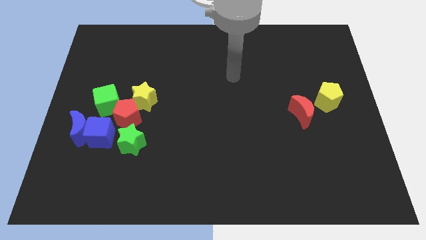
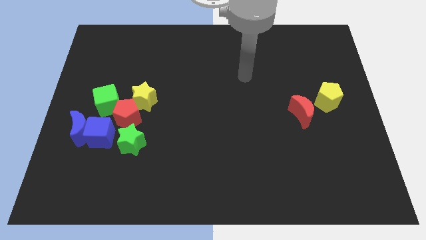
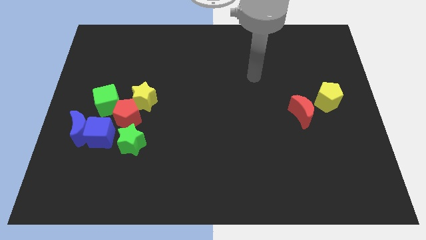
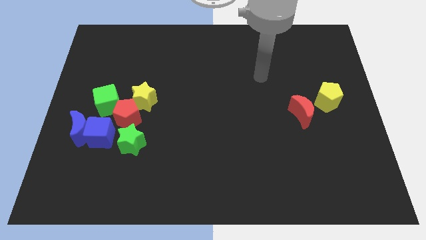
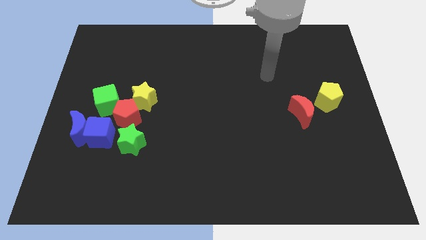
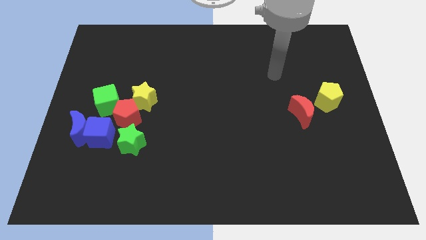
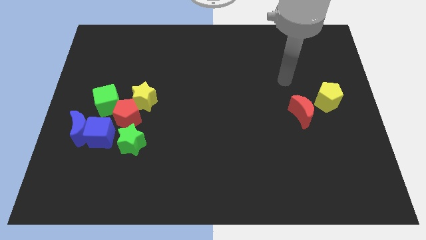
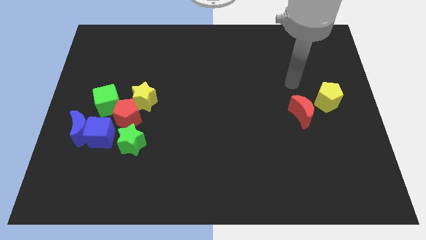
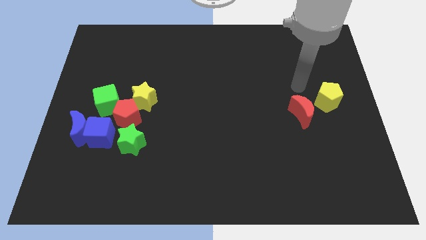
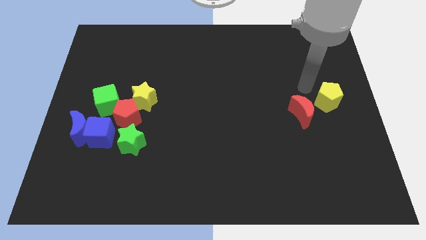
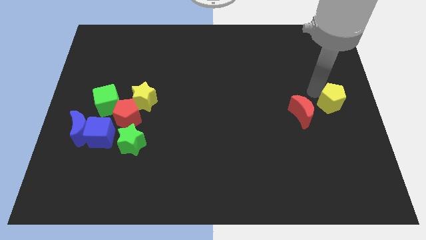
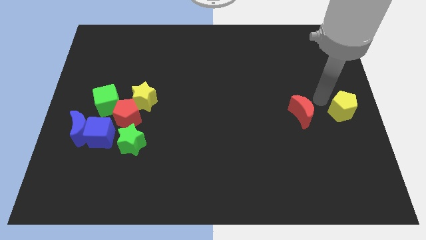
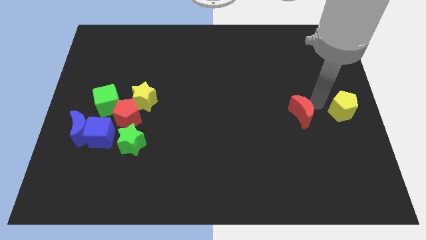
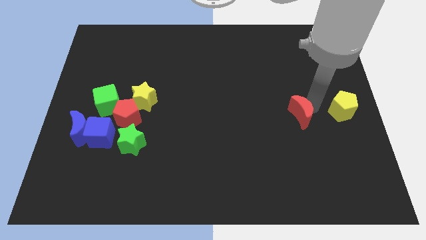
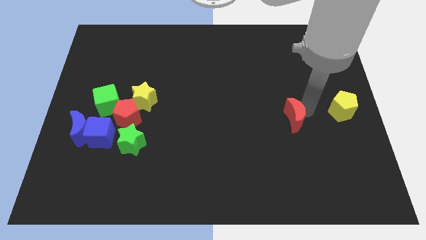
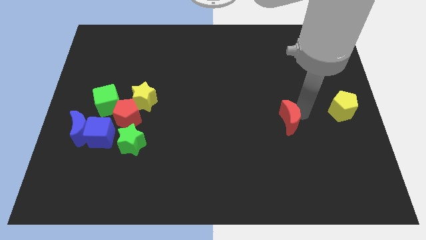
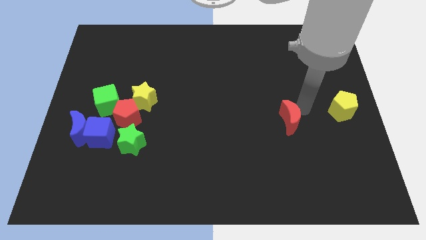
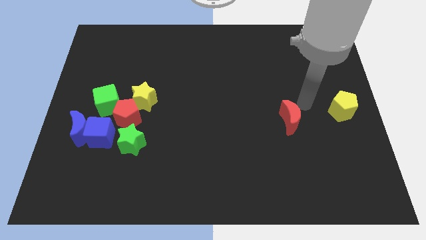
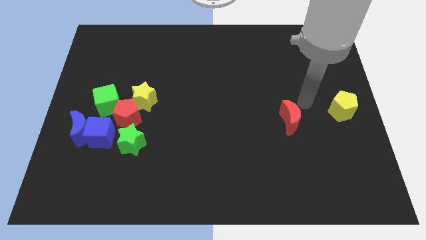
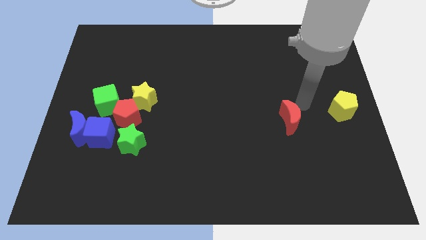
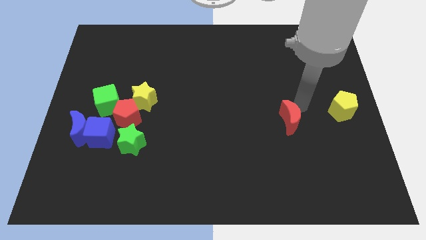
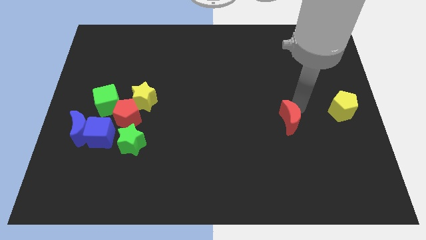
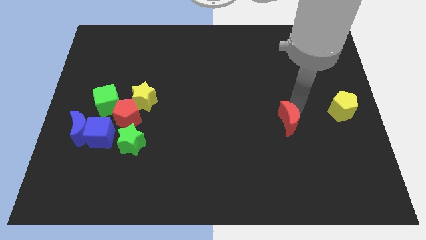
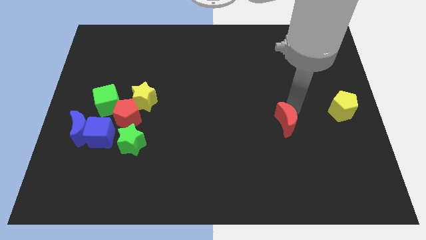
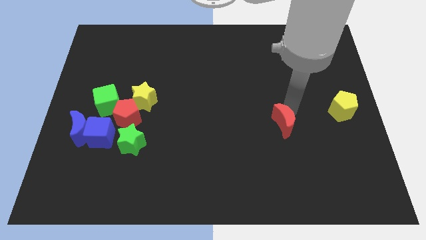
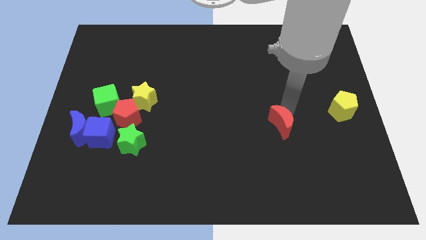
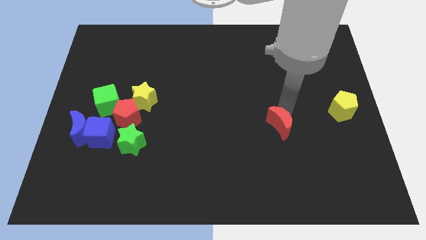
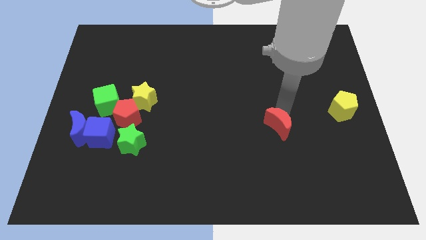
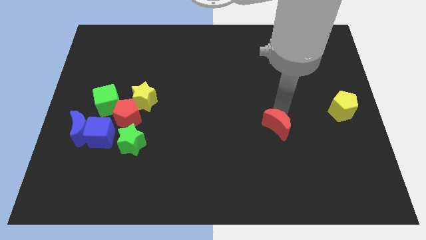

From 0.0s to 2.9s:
slightly move the red moon down and then left

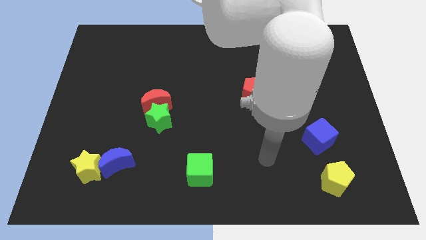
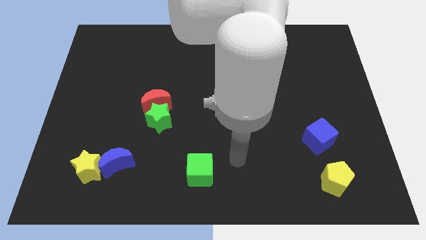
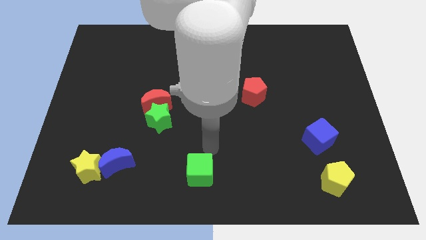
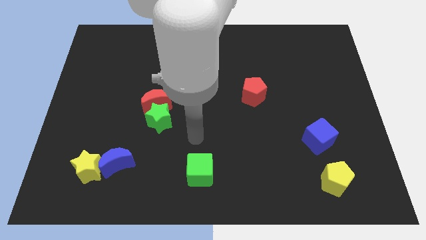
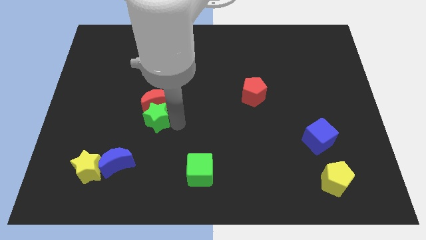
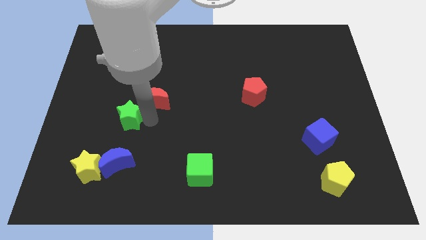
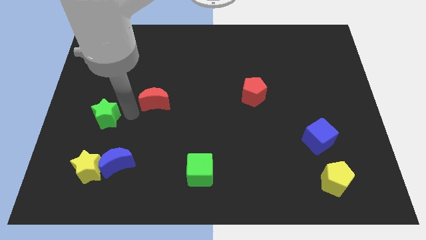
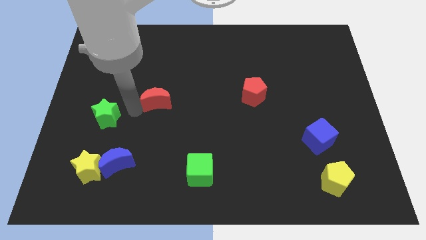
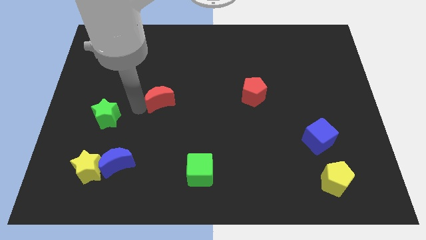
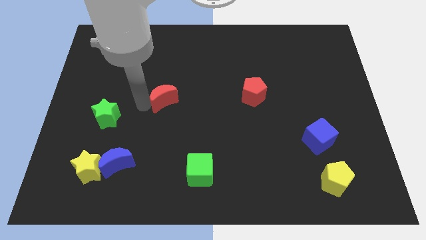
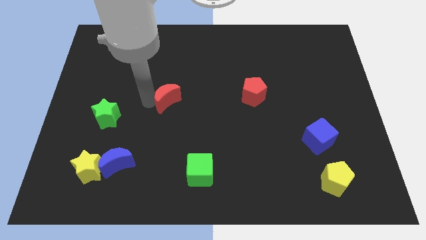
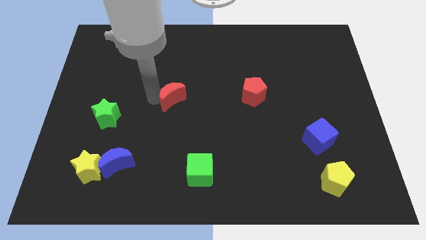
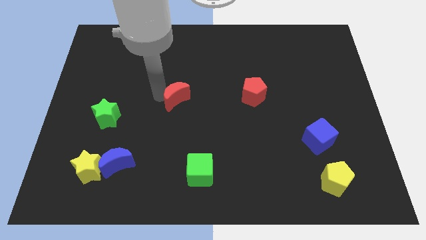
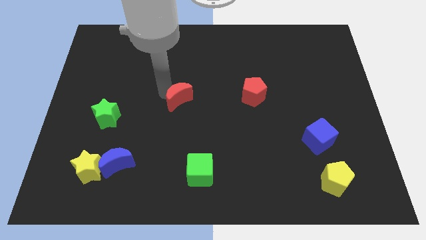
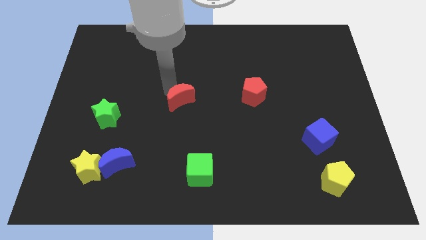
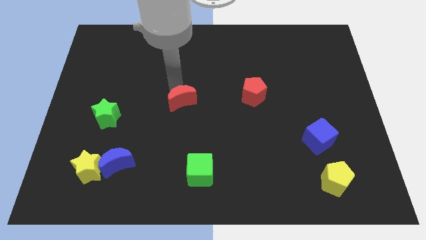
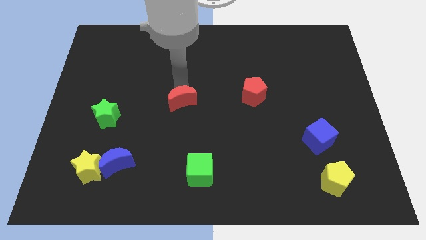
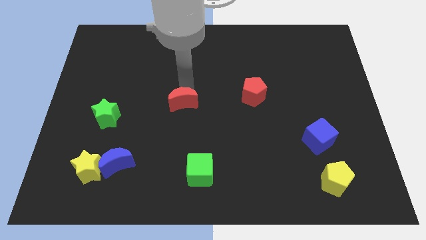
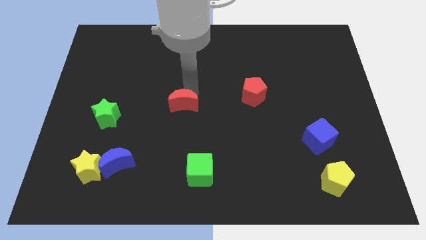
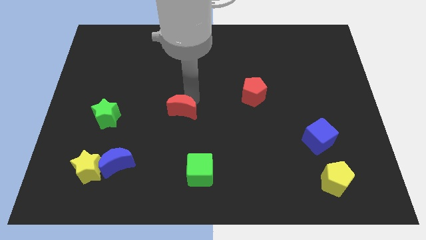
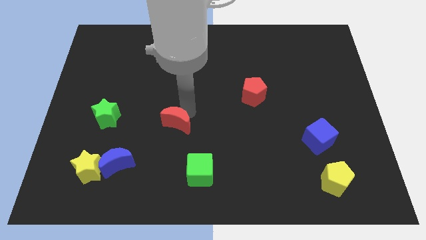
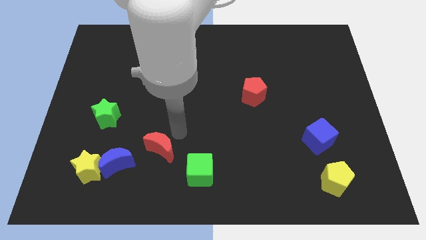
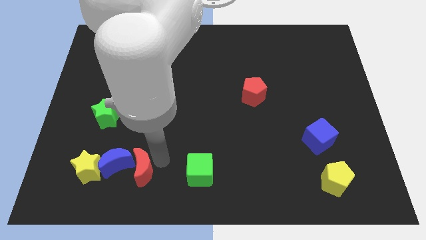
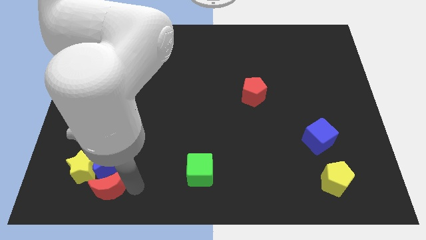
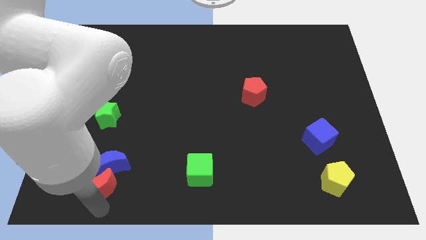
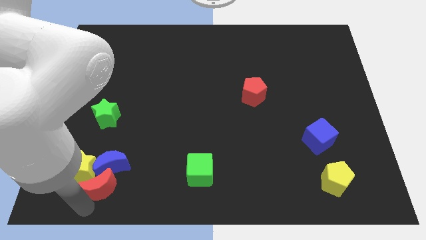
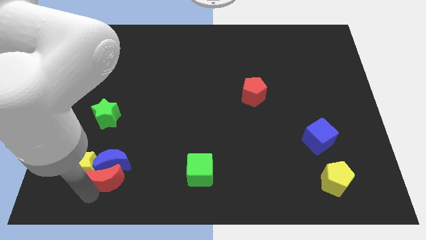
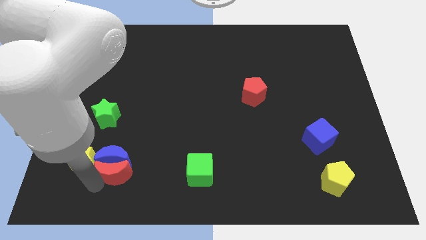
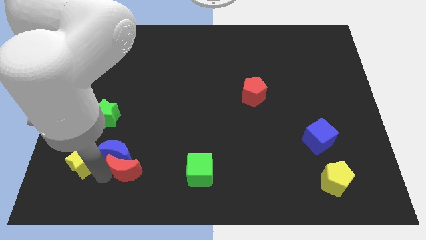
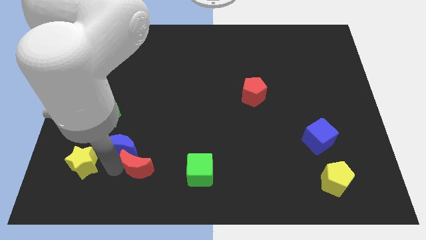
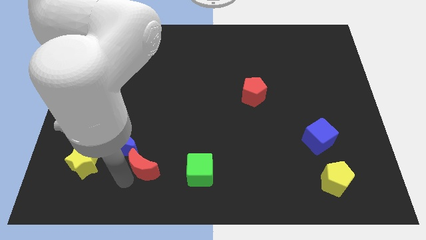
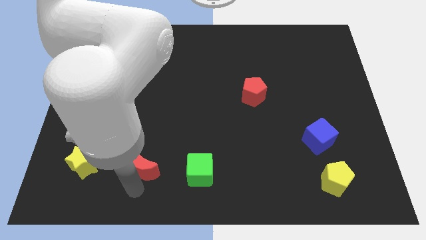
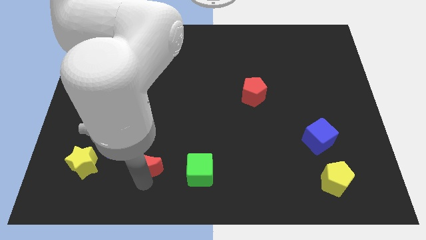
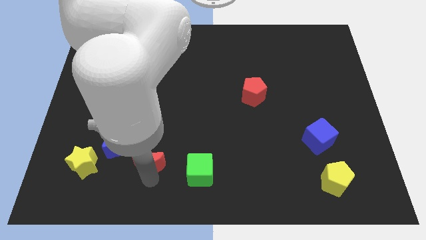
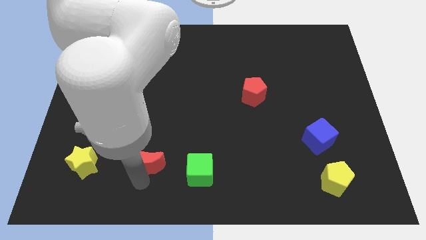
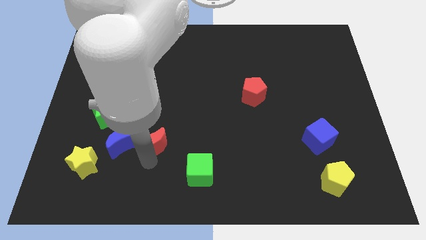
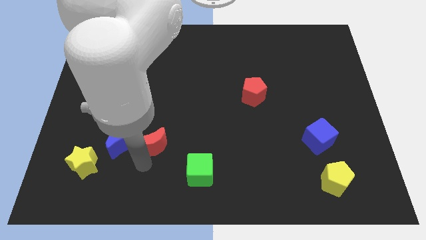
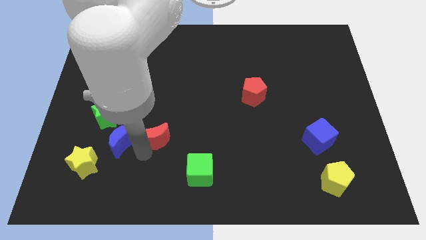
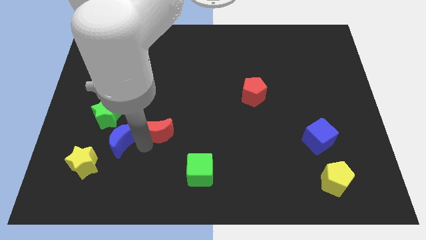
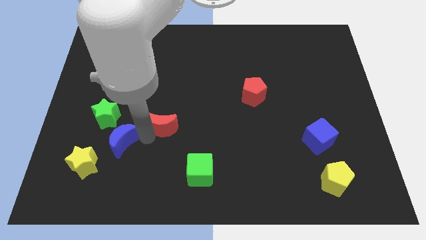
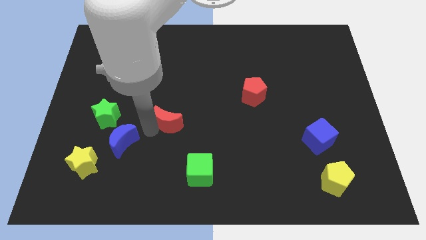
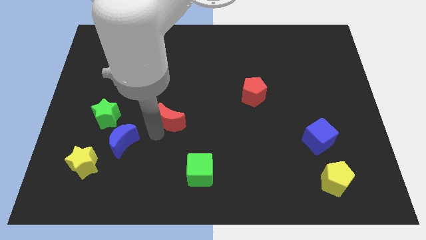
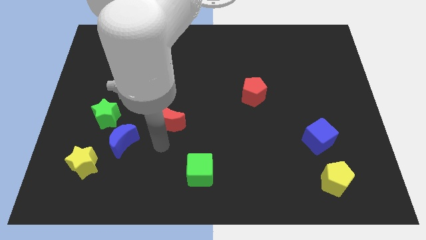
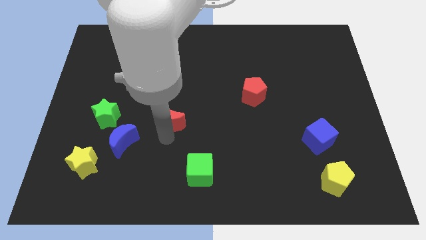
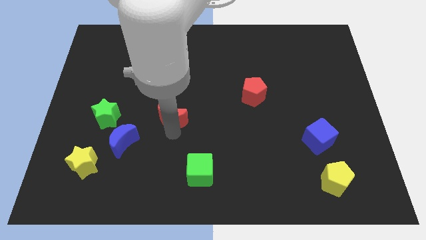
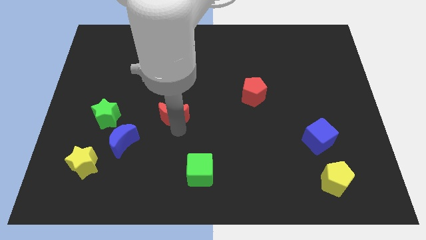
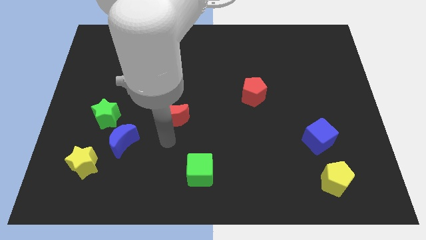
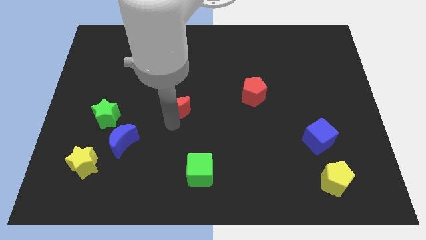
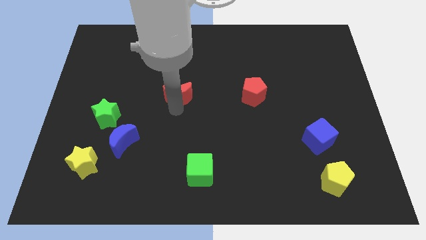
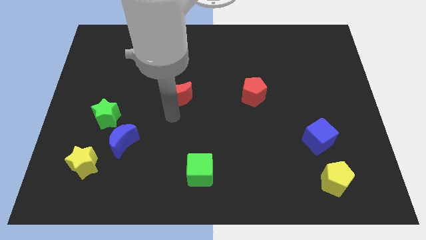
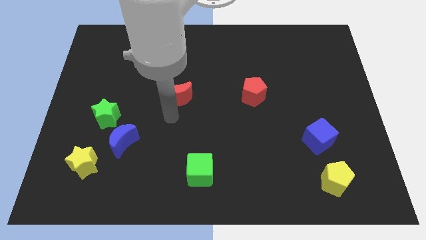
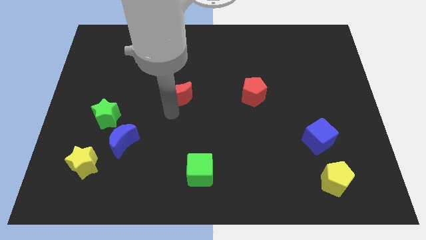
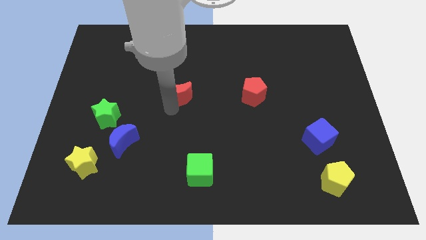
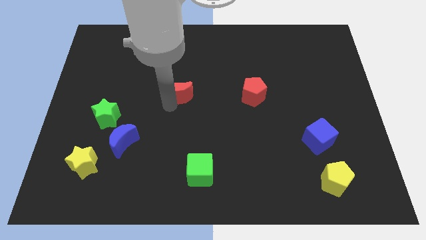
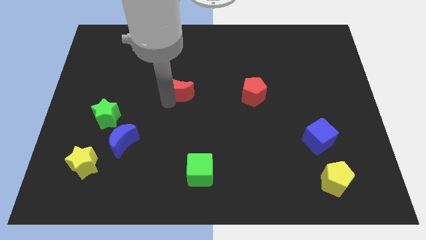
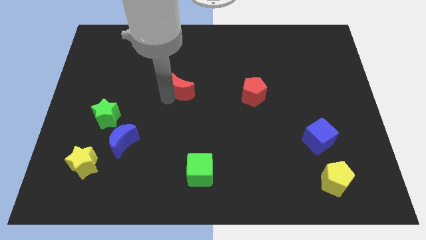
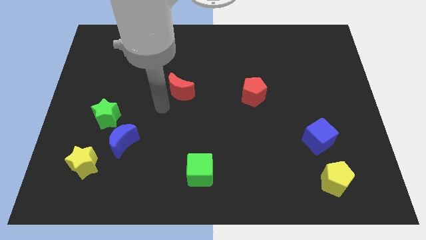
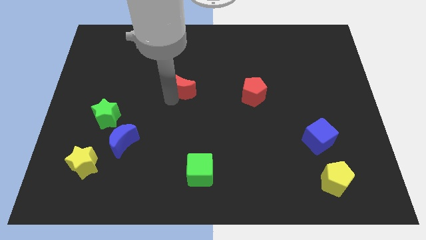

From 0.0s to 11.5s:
slide the red moon somewhat up and right
